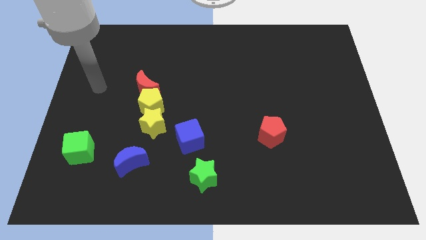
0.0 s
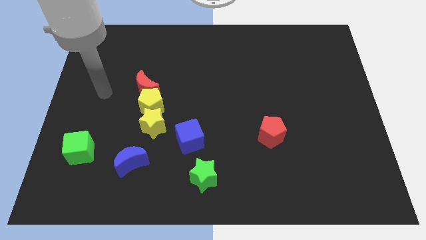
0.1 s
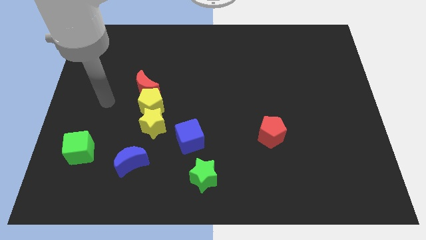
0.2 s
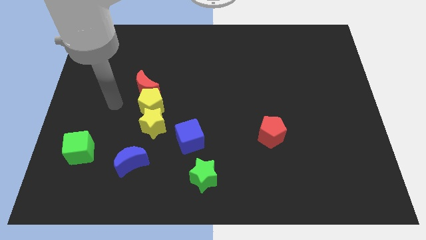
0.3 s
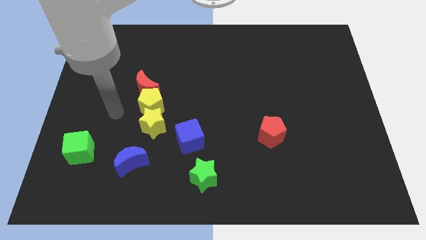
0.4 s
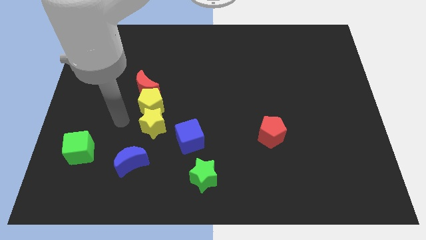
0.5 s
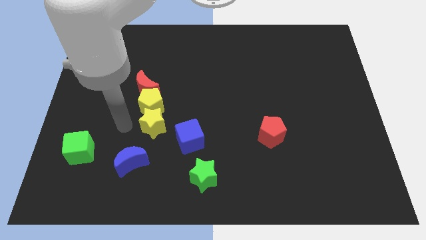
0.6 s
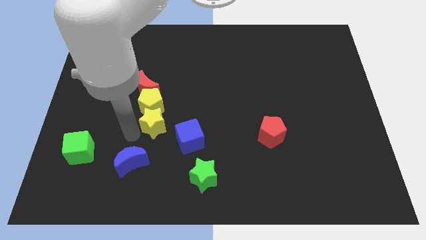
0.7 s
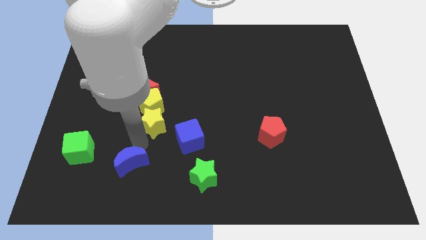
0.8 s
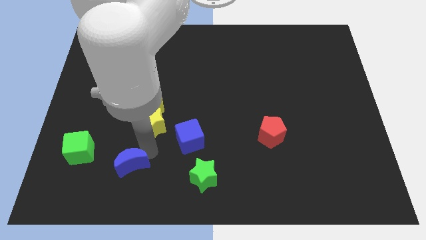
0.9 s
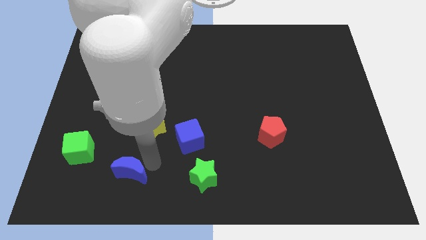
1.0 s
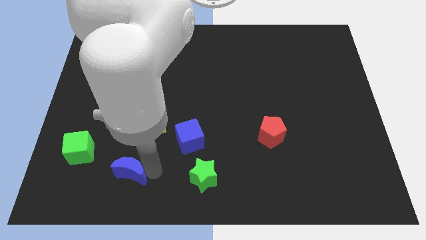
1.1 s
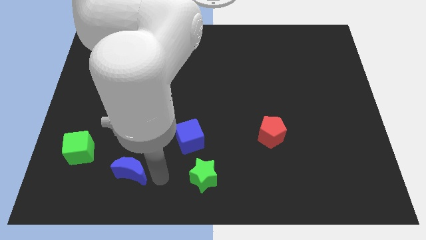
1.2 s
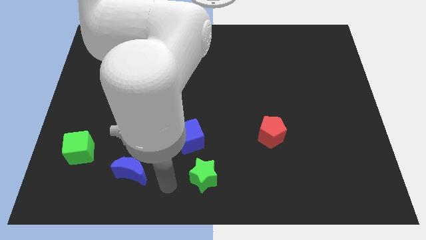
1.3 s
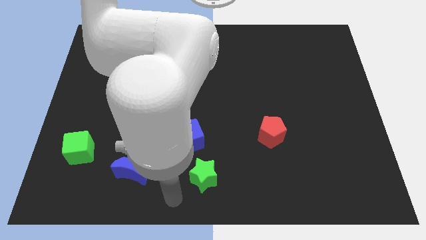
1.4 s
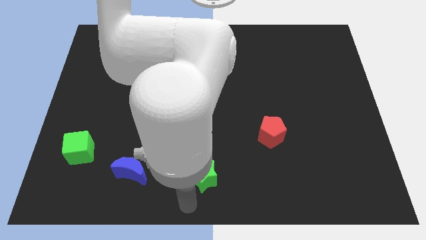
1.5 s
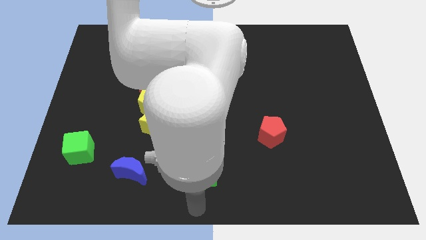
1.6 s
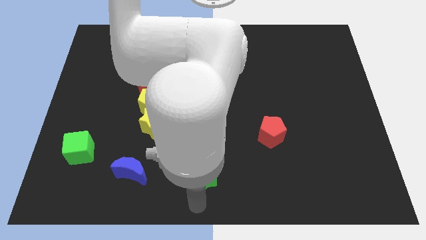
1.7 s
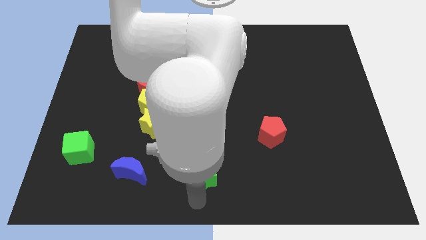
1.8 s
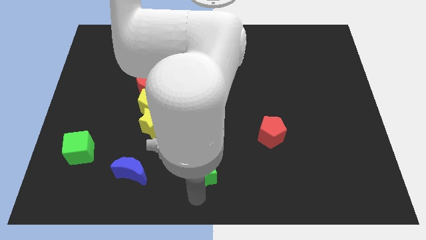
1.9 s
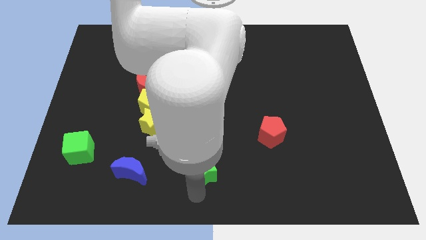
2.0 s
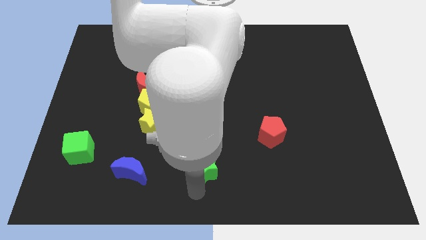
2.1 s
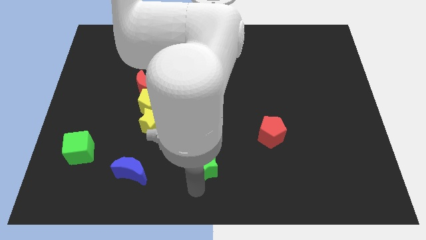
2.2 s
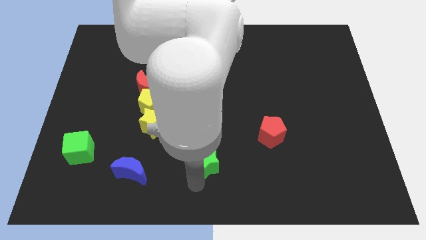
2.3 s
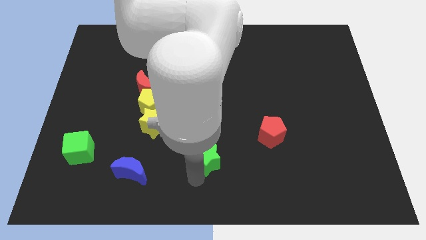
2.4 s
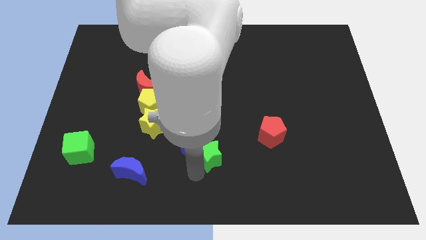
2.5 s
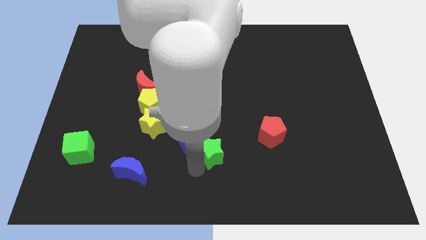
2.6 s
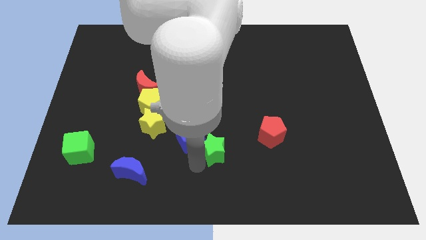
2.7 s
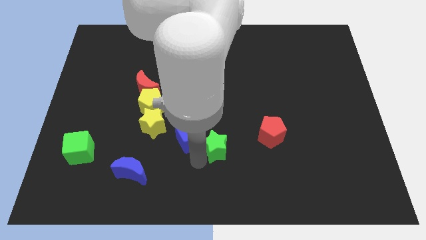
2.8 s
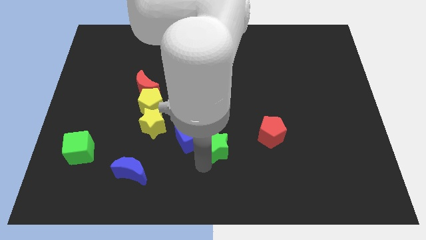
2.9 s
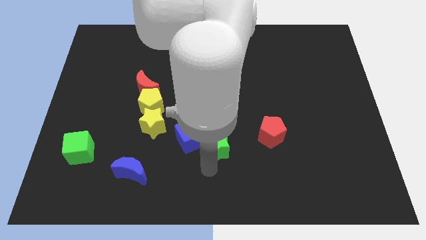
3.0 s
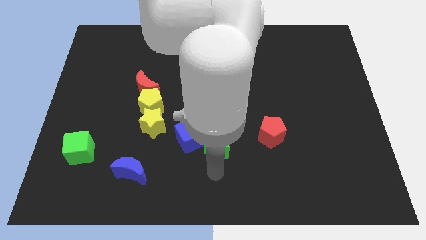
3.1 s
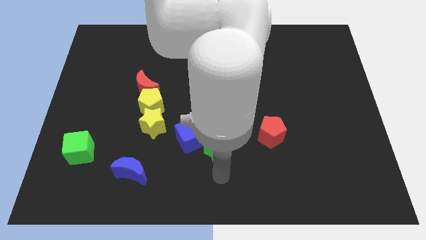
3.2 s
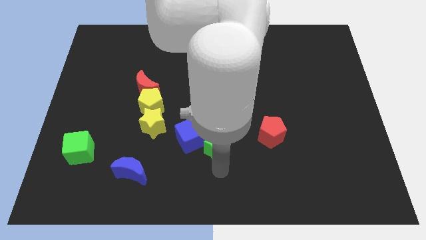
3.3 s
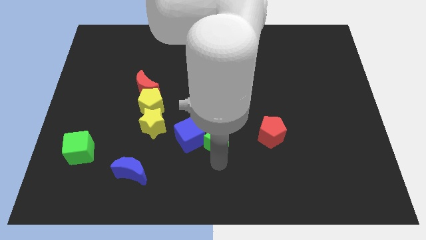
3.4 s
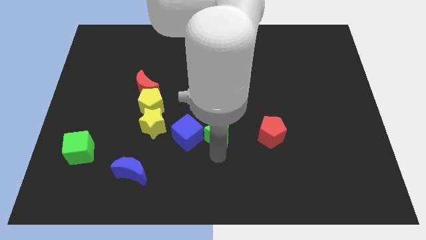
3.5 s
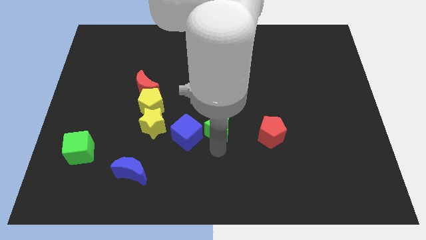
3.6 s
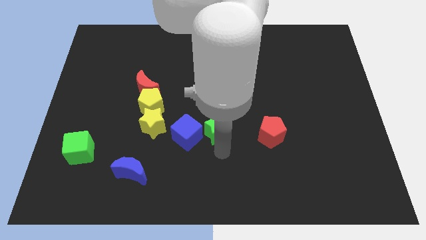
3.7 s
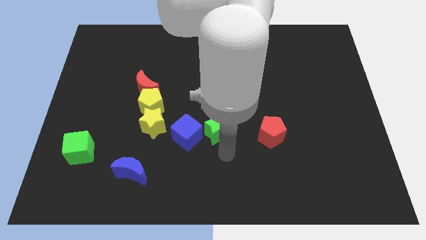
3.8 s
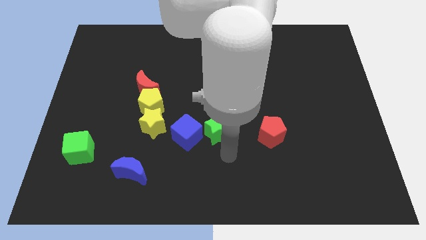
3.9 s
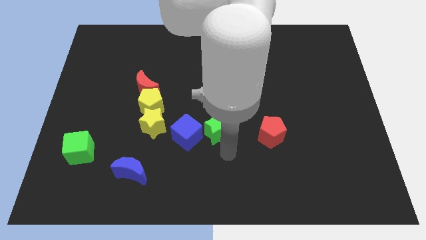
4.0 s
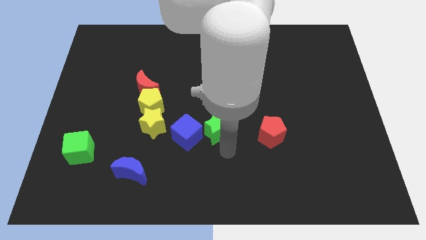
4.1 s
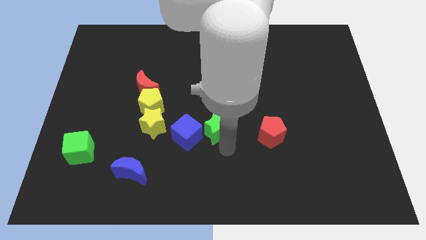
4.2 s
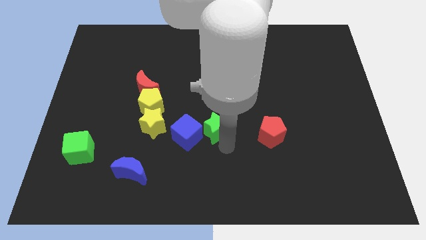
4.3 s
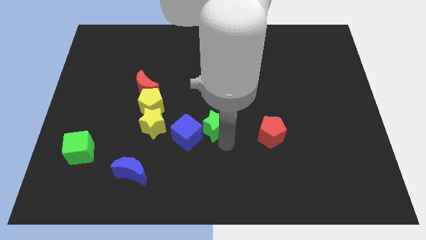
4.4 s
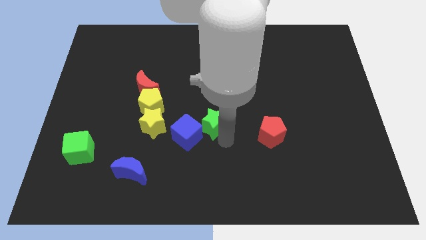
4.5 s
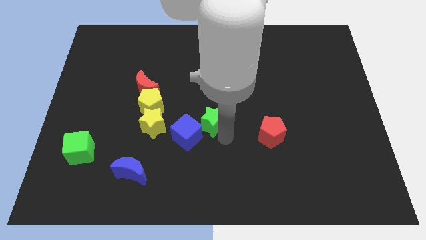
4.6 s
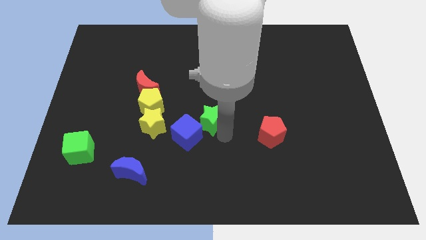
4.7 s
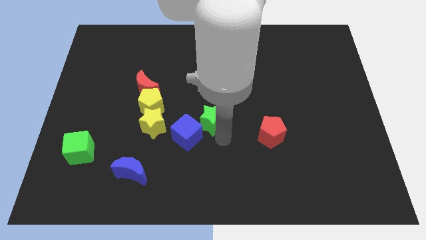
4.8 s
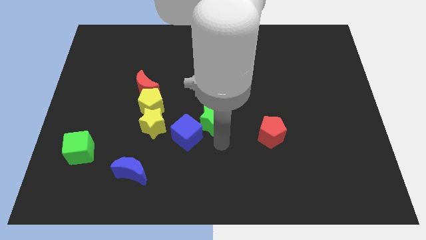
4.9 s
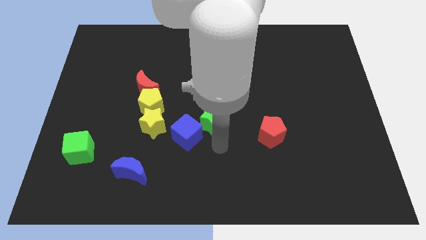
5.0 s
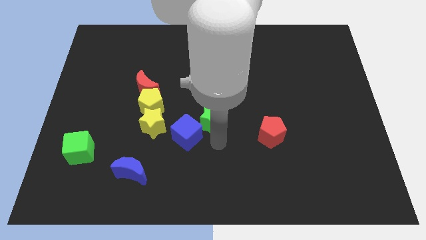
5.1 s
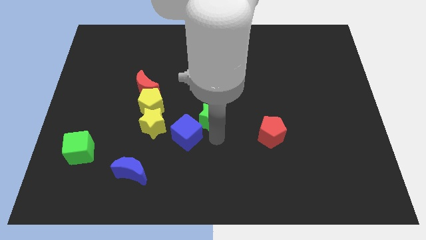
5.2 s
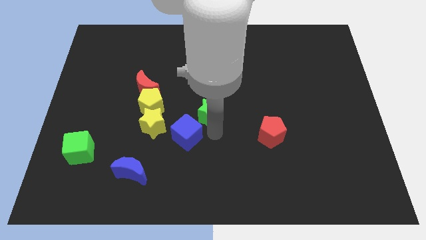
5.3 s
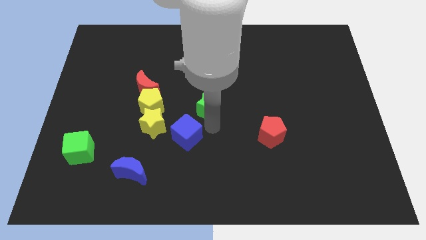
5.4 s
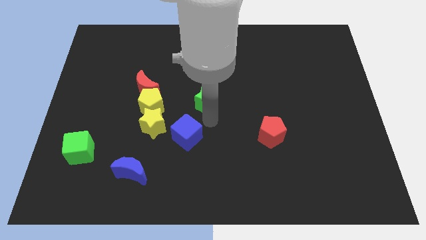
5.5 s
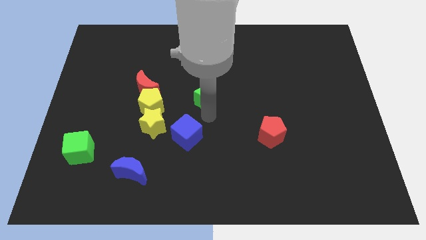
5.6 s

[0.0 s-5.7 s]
slide the green star upwards

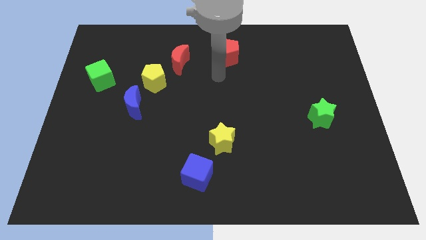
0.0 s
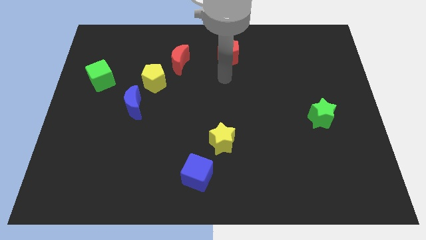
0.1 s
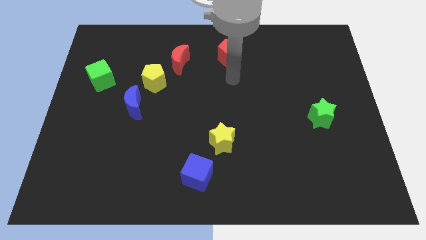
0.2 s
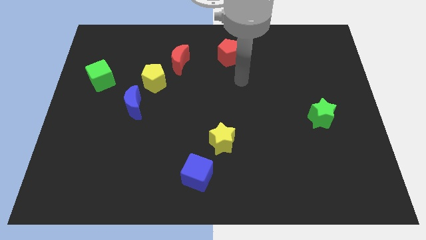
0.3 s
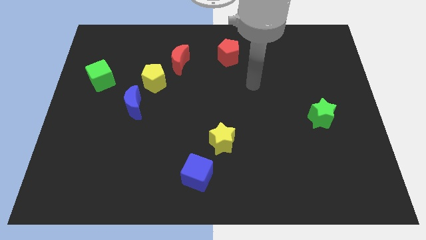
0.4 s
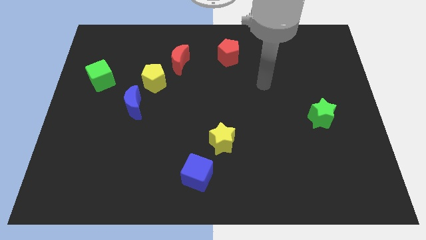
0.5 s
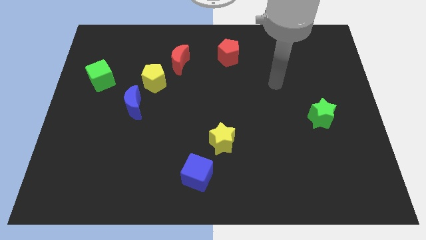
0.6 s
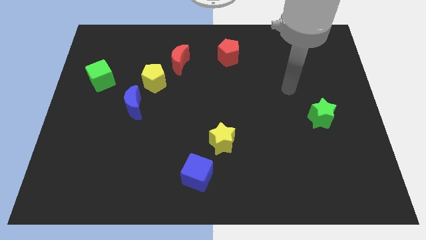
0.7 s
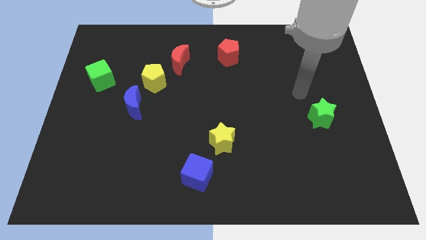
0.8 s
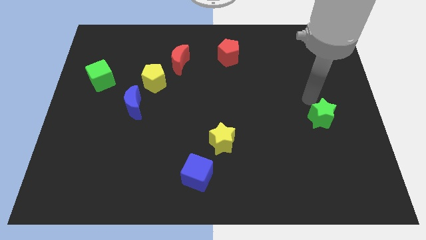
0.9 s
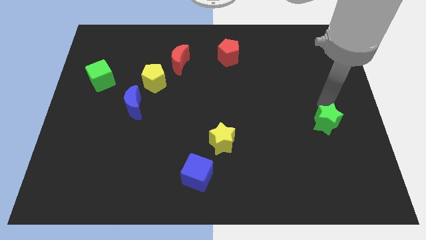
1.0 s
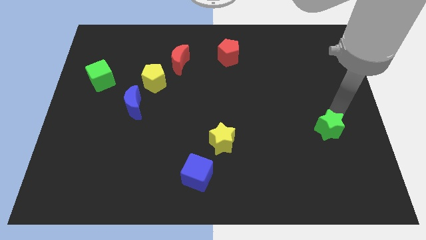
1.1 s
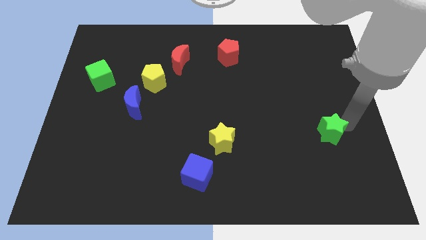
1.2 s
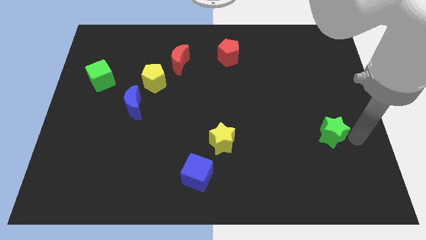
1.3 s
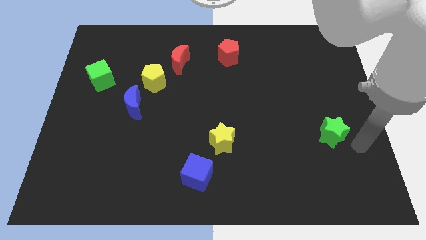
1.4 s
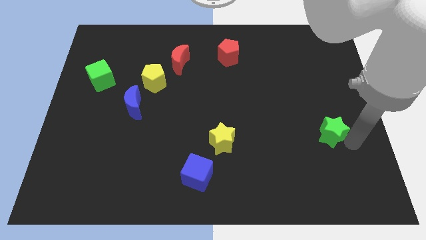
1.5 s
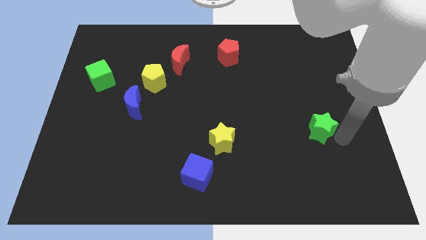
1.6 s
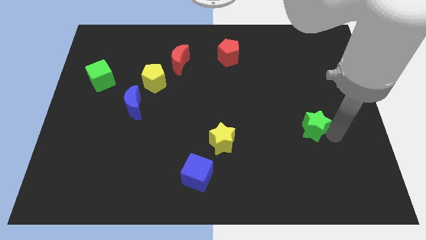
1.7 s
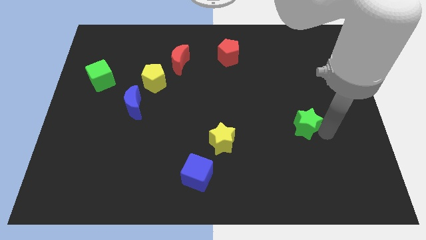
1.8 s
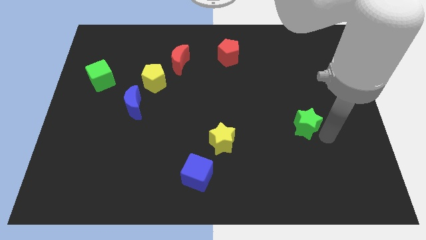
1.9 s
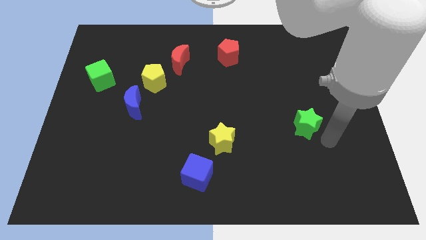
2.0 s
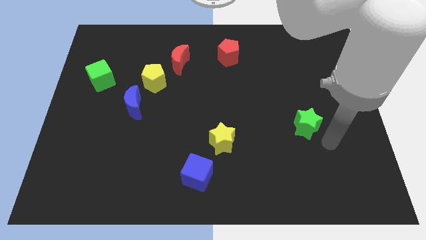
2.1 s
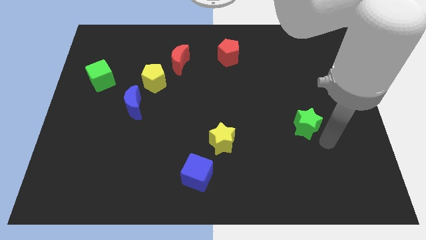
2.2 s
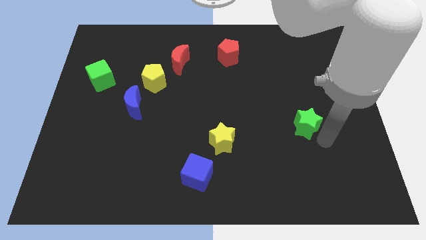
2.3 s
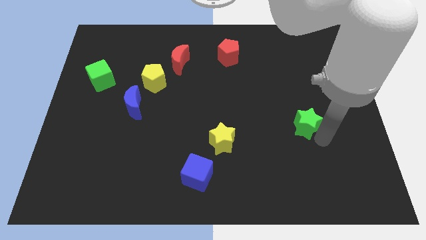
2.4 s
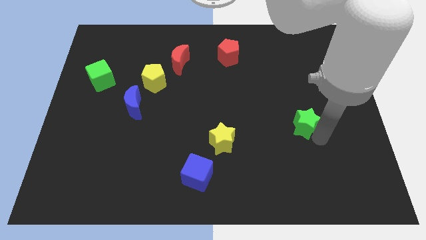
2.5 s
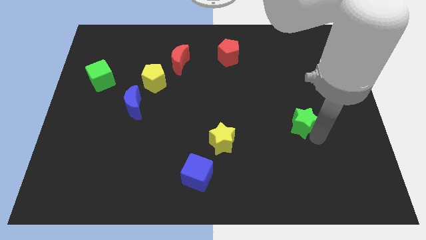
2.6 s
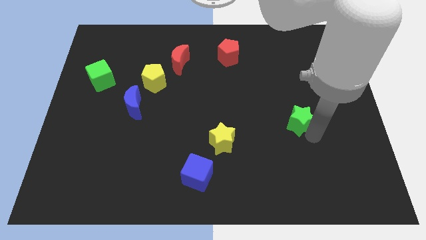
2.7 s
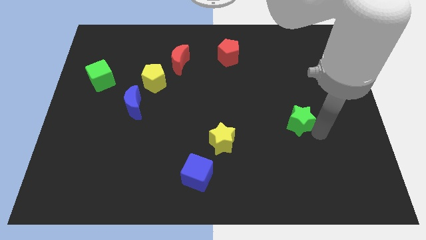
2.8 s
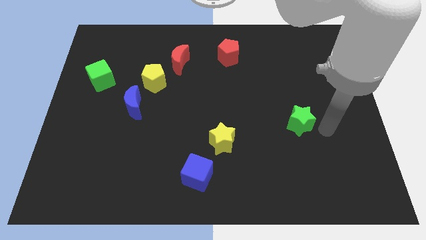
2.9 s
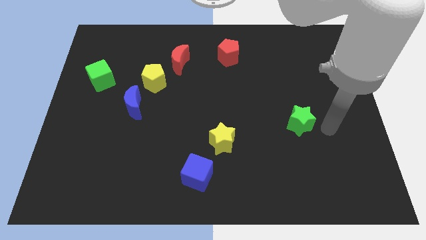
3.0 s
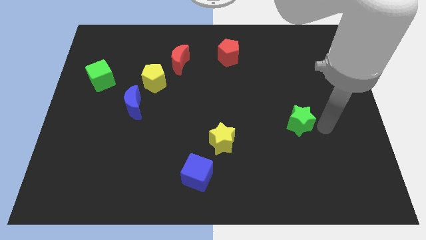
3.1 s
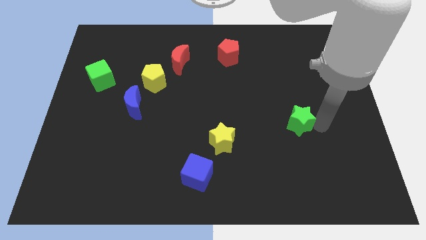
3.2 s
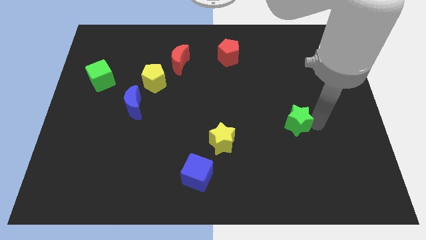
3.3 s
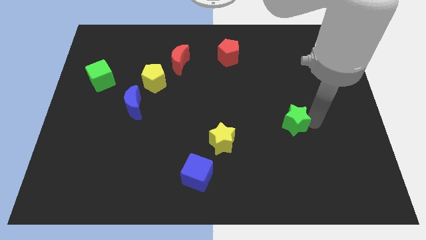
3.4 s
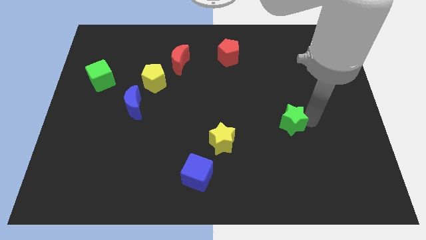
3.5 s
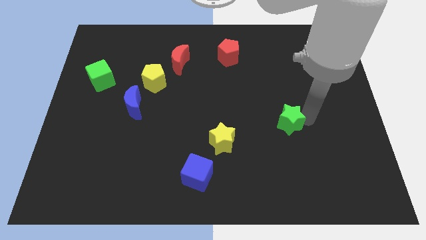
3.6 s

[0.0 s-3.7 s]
slightly move the green star left
